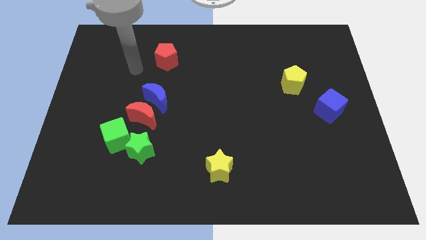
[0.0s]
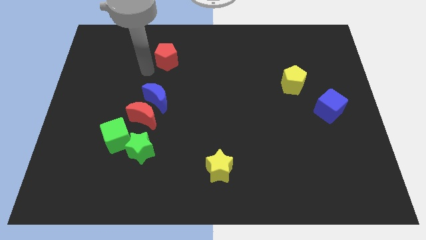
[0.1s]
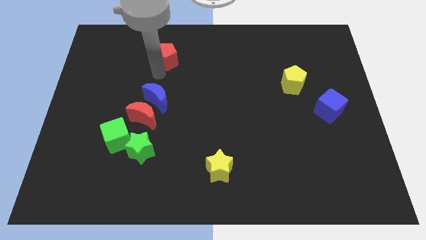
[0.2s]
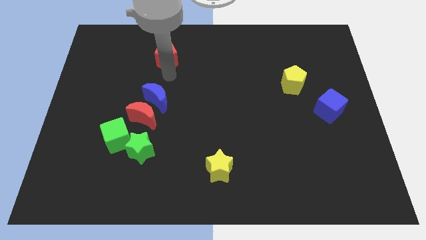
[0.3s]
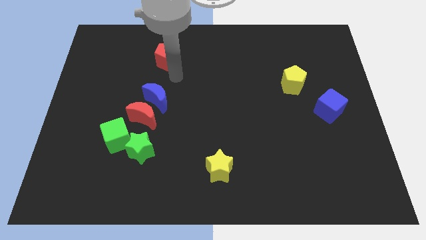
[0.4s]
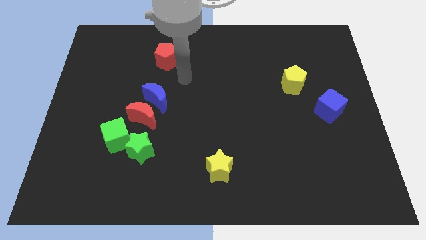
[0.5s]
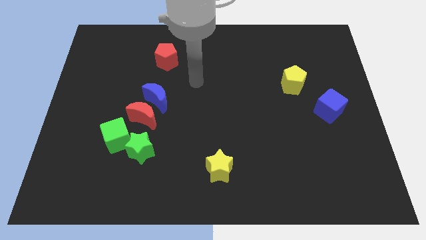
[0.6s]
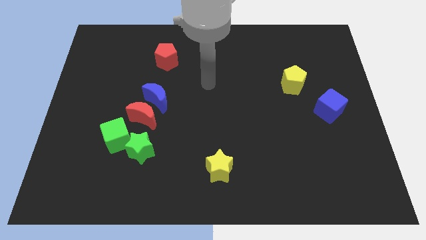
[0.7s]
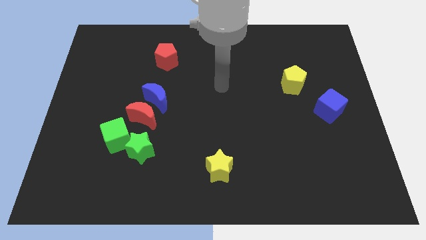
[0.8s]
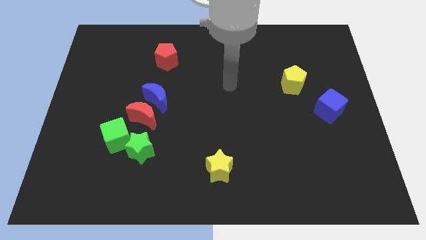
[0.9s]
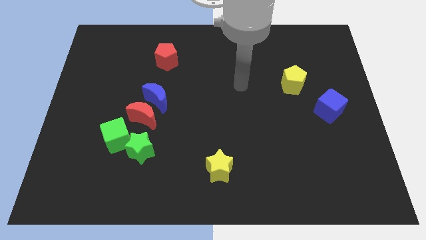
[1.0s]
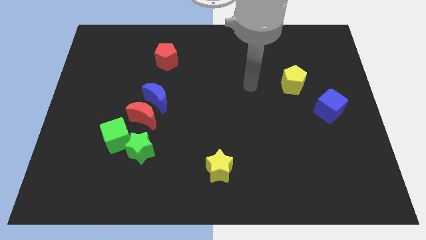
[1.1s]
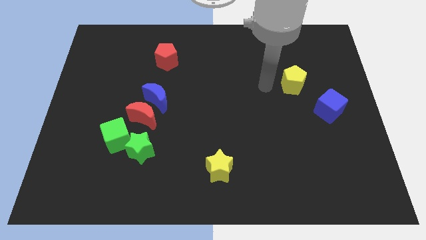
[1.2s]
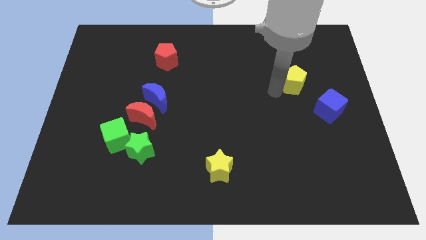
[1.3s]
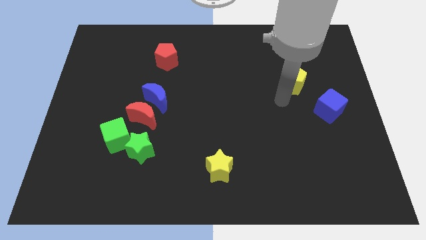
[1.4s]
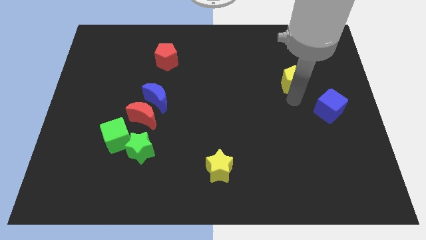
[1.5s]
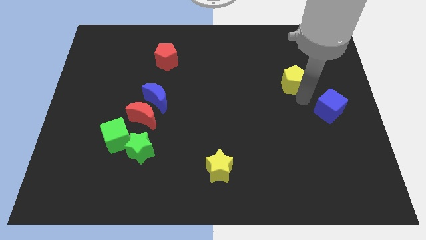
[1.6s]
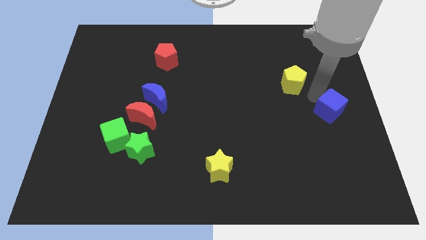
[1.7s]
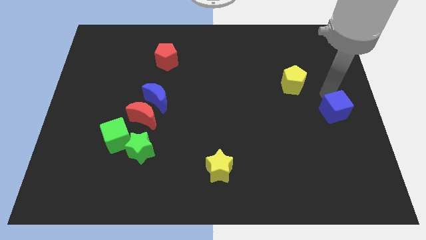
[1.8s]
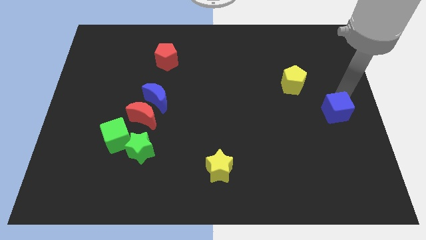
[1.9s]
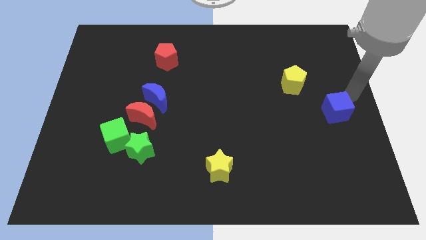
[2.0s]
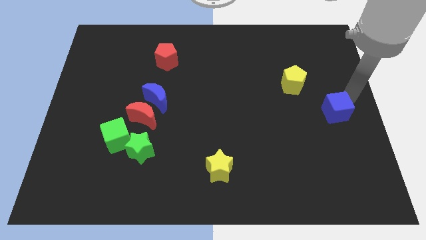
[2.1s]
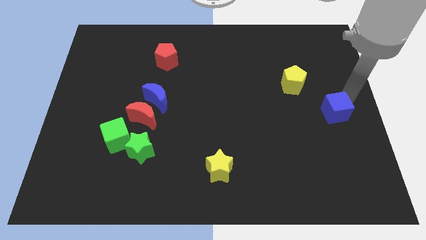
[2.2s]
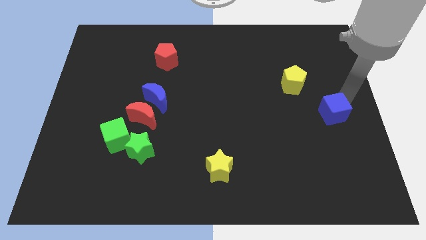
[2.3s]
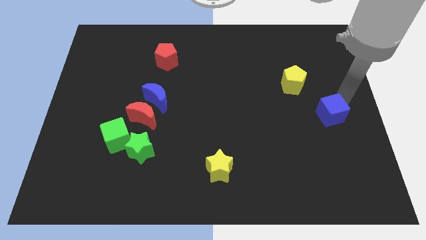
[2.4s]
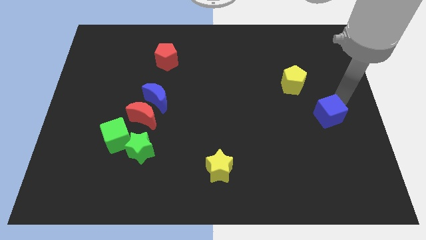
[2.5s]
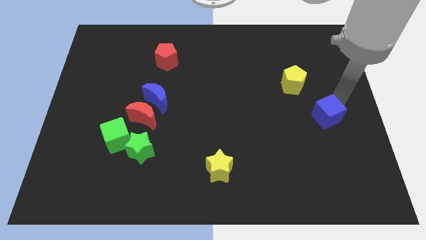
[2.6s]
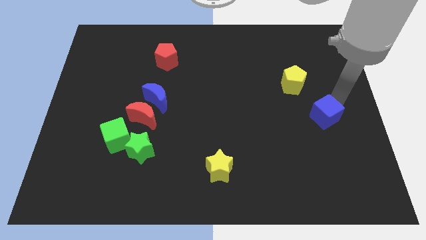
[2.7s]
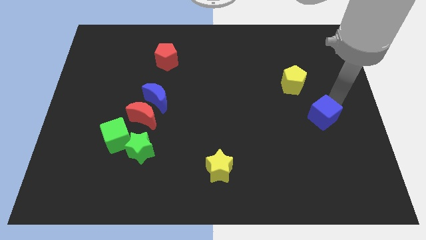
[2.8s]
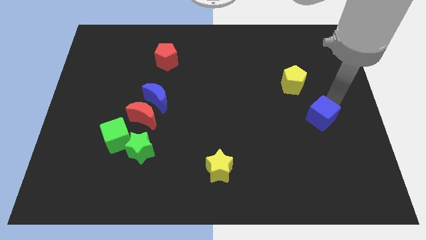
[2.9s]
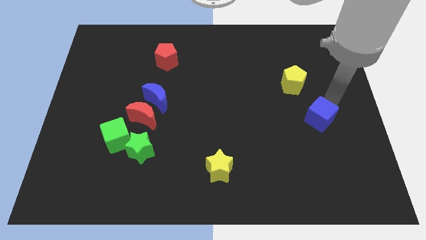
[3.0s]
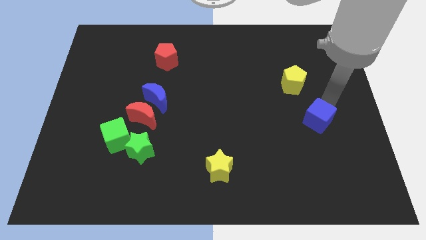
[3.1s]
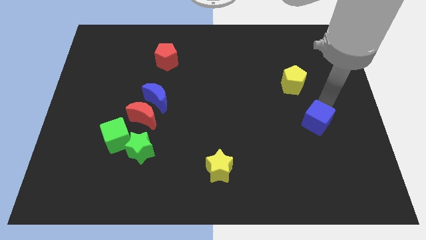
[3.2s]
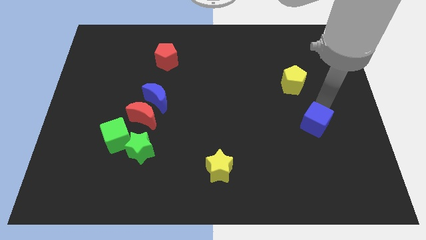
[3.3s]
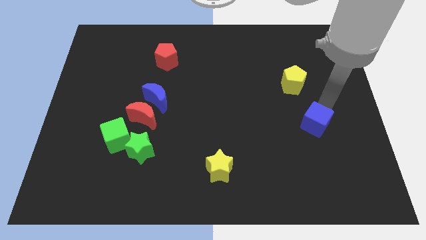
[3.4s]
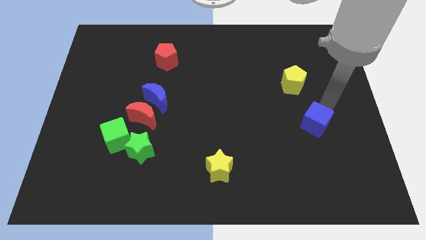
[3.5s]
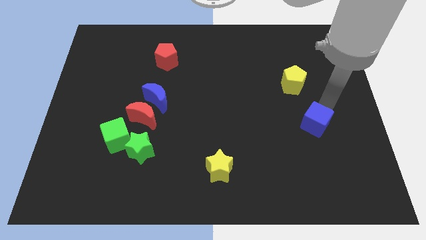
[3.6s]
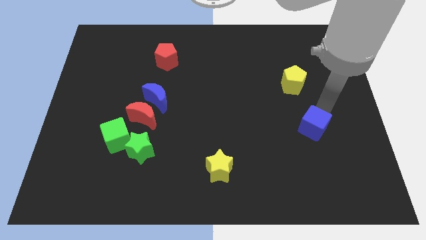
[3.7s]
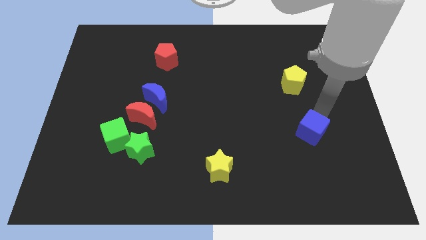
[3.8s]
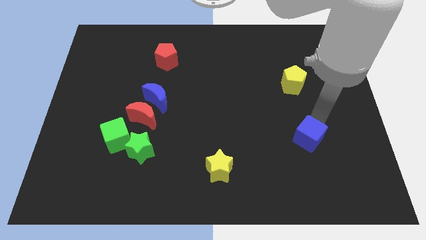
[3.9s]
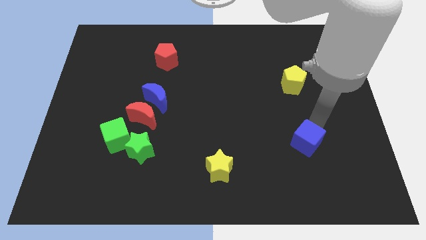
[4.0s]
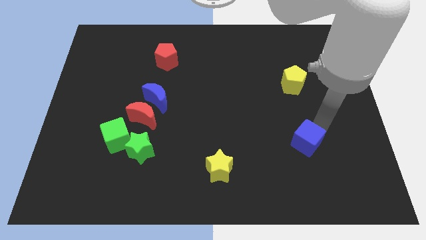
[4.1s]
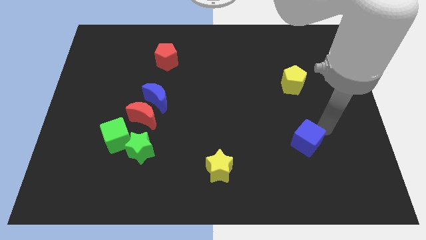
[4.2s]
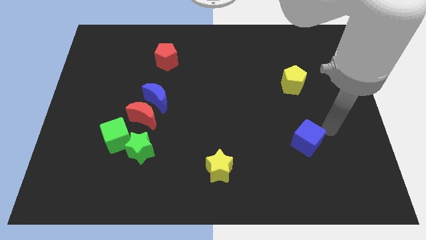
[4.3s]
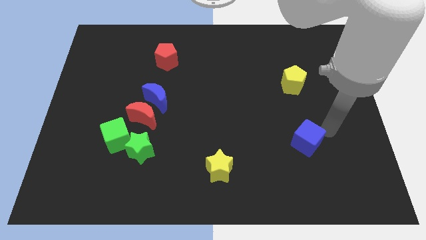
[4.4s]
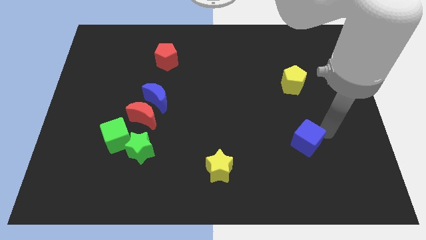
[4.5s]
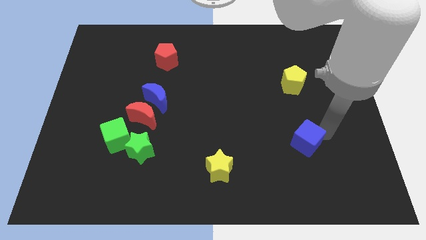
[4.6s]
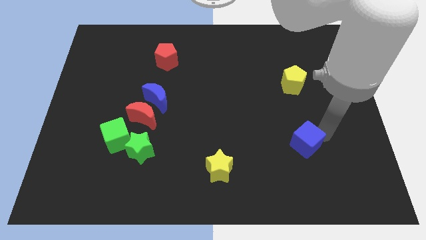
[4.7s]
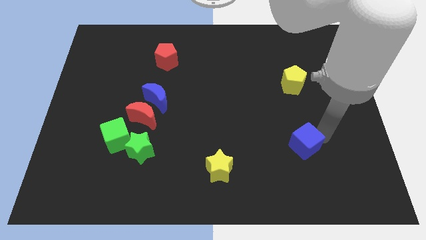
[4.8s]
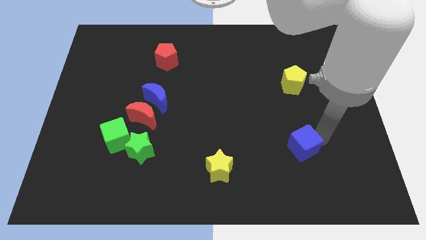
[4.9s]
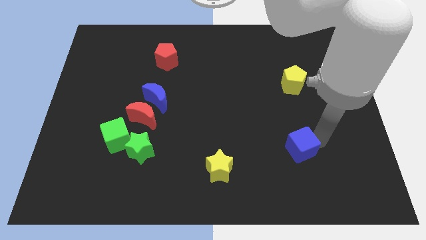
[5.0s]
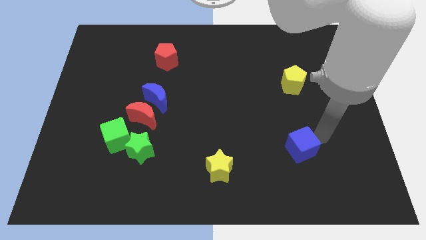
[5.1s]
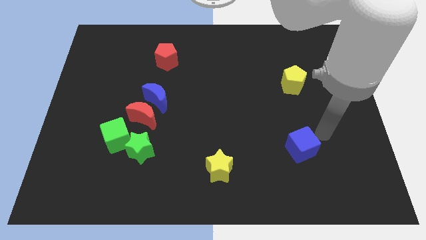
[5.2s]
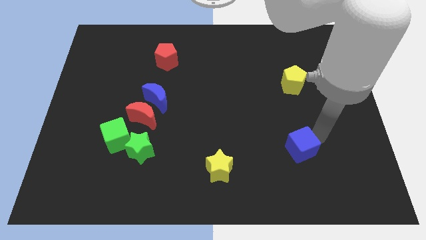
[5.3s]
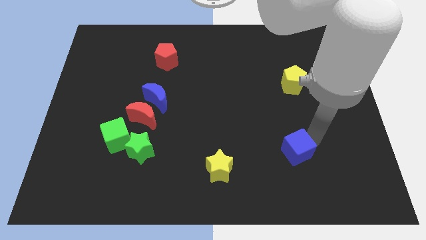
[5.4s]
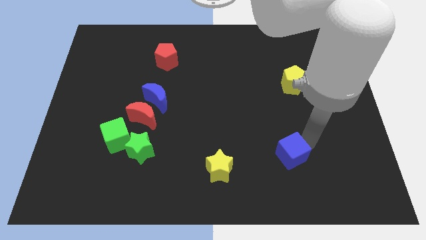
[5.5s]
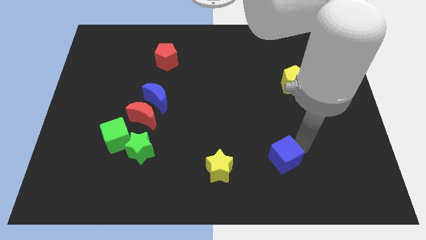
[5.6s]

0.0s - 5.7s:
move the blue cube to the right side of the yellow star

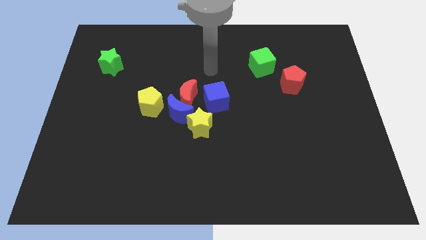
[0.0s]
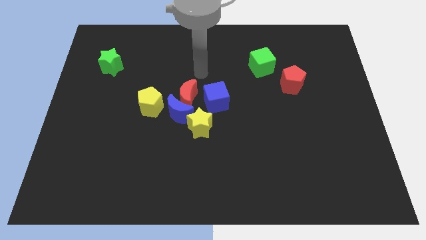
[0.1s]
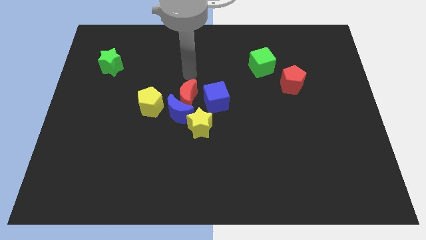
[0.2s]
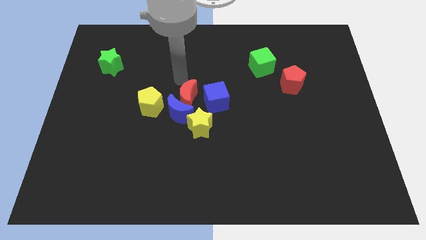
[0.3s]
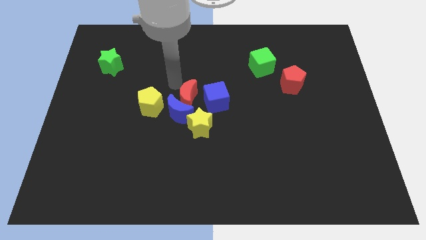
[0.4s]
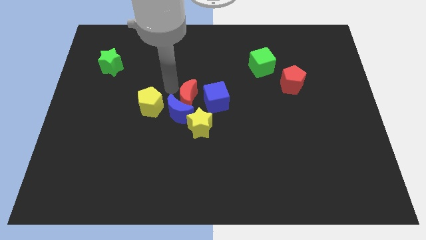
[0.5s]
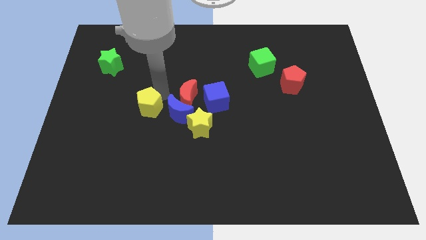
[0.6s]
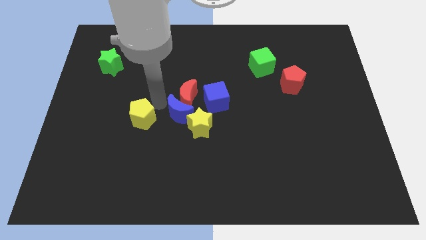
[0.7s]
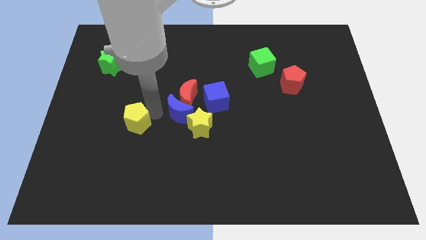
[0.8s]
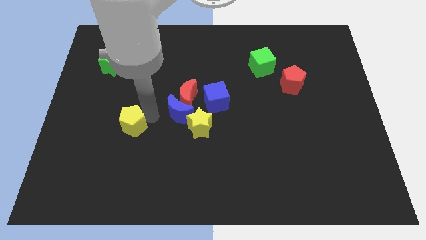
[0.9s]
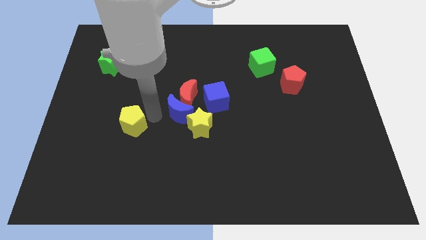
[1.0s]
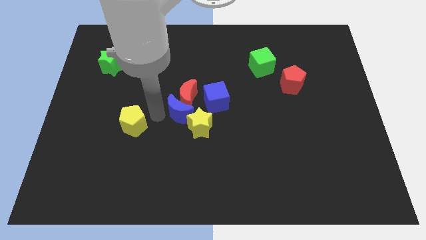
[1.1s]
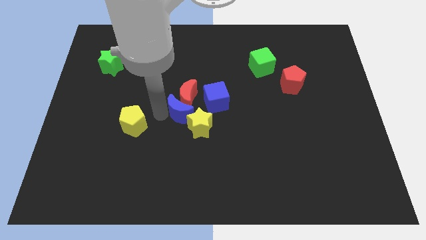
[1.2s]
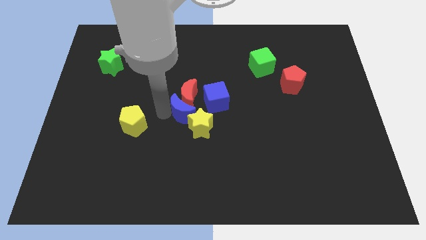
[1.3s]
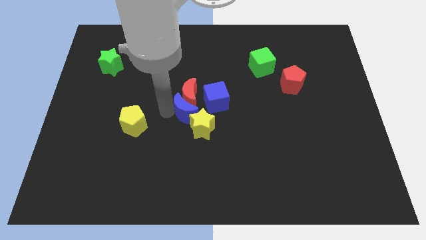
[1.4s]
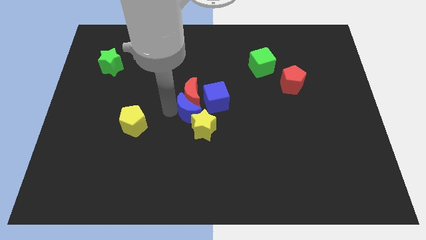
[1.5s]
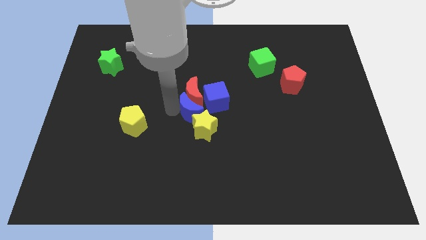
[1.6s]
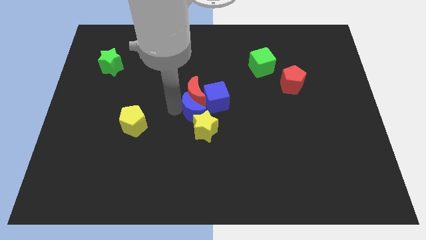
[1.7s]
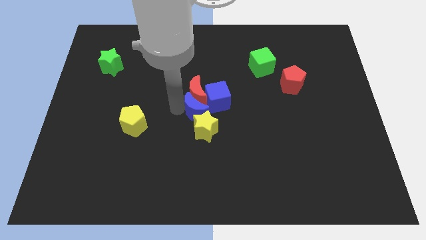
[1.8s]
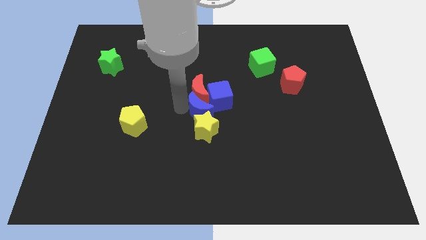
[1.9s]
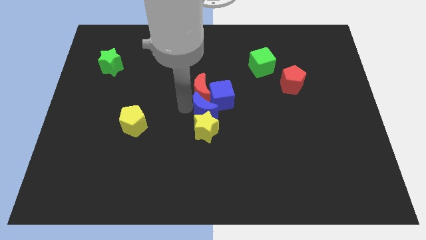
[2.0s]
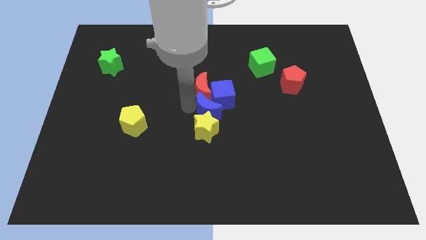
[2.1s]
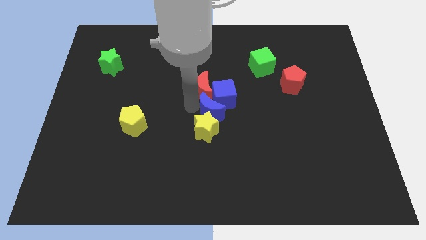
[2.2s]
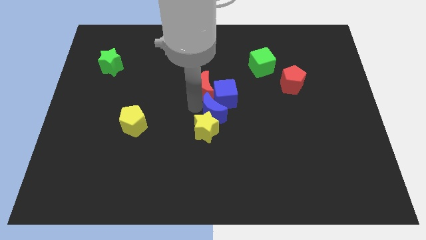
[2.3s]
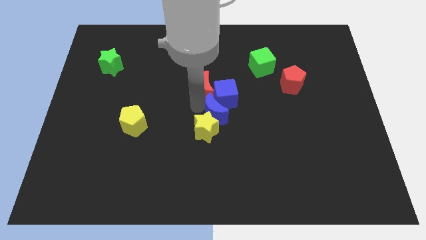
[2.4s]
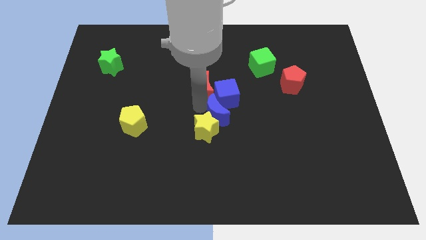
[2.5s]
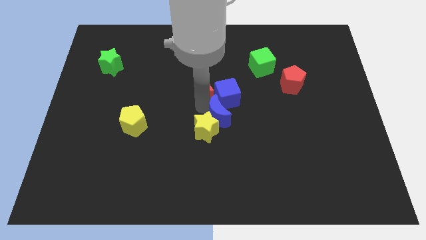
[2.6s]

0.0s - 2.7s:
push the blue moon right of the yellow star
